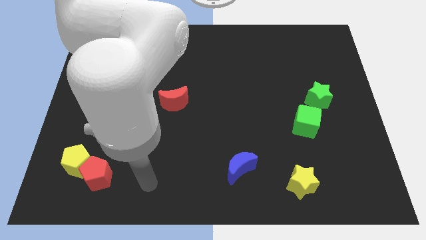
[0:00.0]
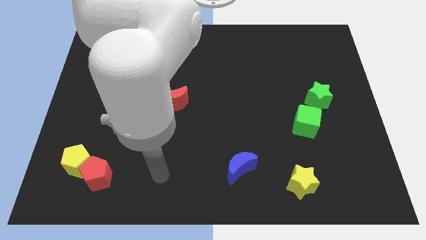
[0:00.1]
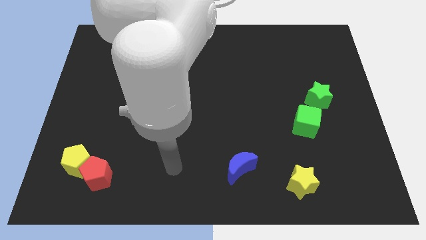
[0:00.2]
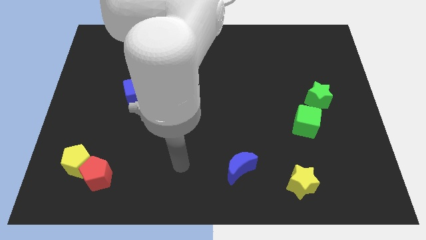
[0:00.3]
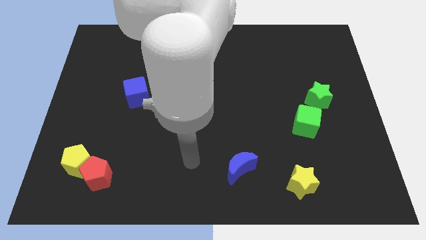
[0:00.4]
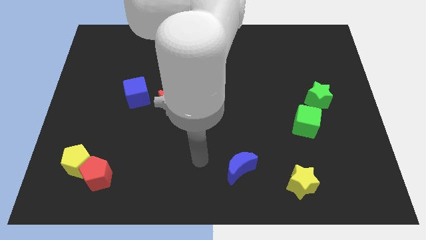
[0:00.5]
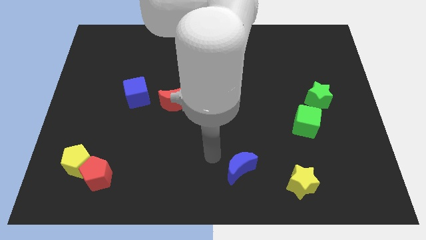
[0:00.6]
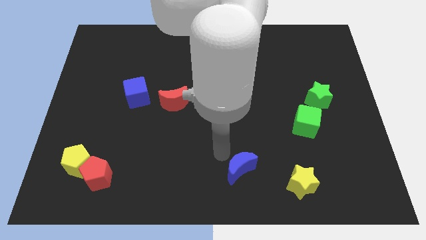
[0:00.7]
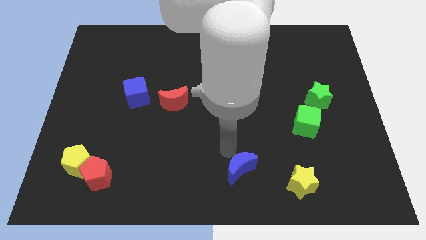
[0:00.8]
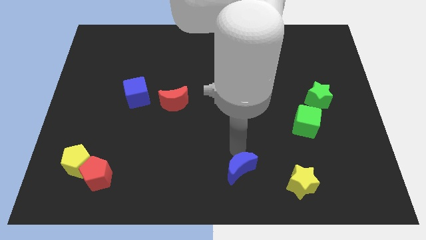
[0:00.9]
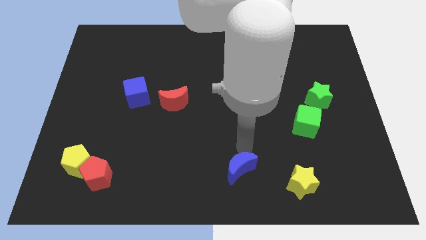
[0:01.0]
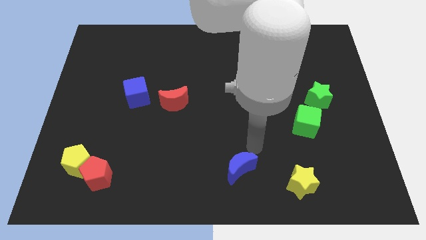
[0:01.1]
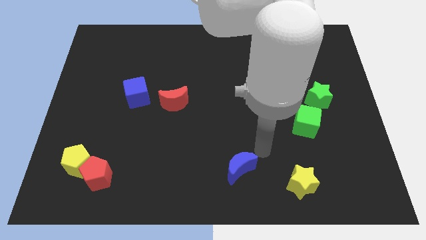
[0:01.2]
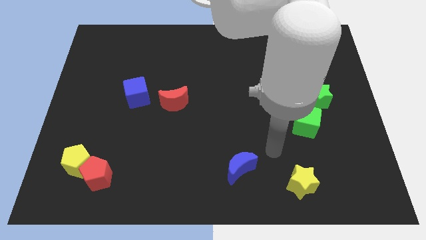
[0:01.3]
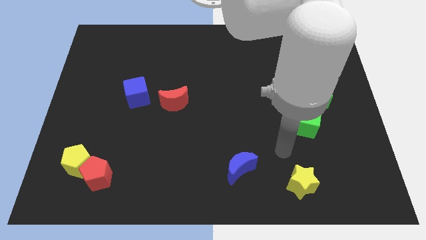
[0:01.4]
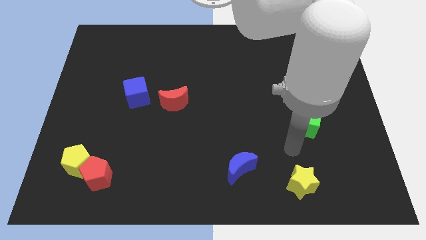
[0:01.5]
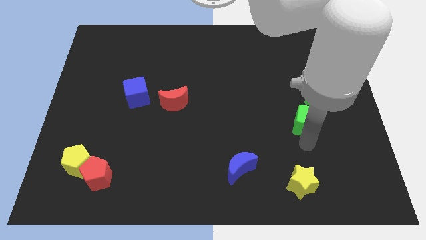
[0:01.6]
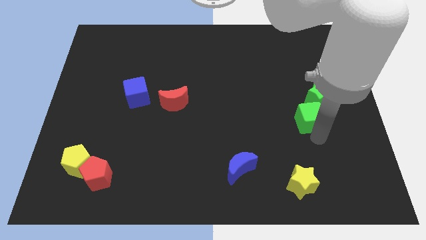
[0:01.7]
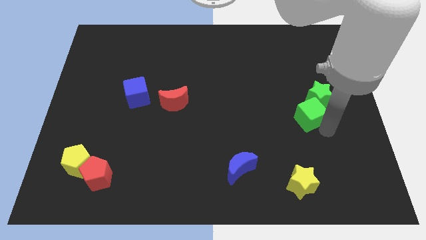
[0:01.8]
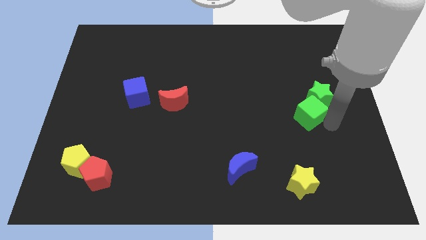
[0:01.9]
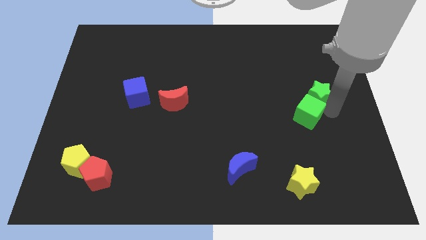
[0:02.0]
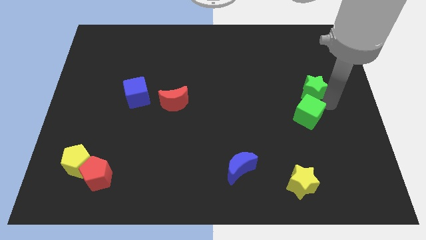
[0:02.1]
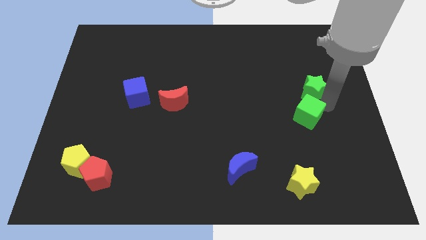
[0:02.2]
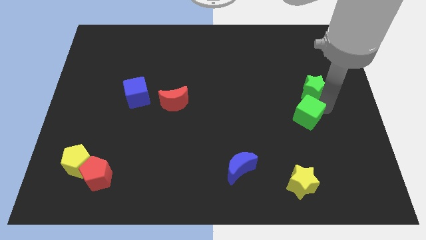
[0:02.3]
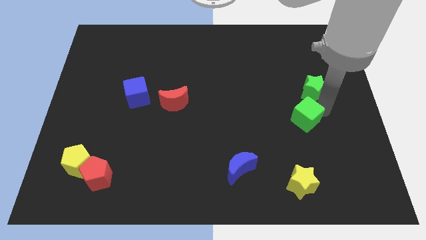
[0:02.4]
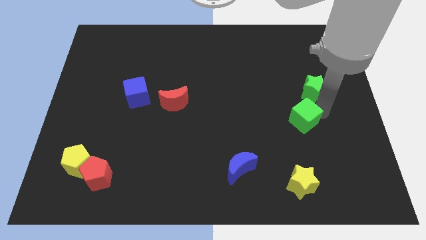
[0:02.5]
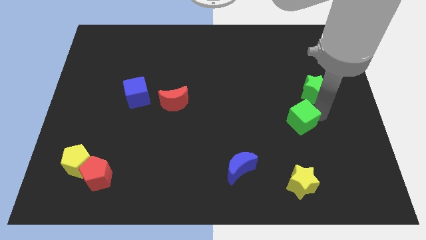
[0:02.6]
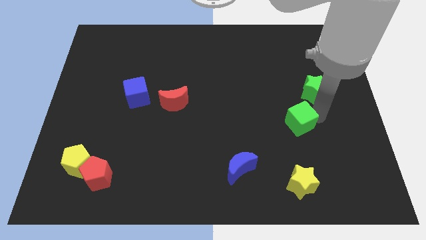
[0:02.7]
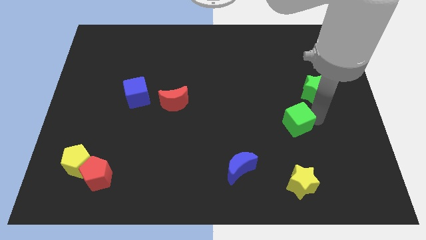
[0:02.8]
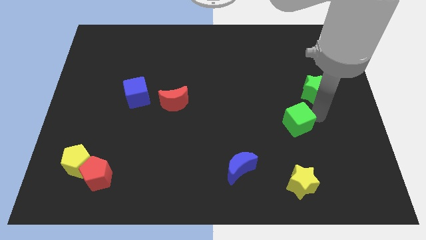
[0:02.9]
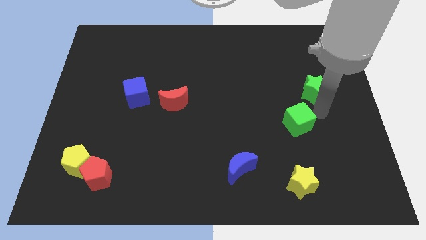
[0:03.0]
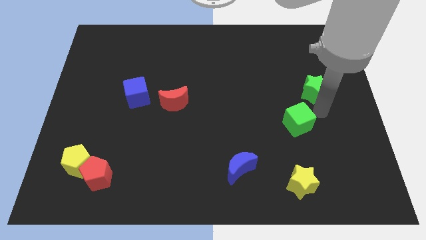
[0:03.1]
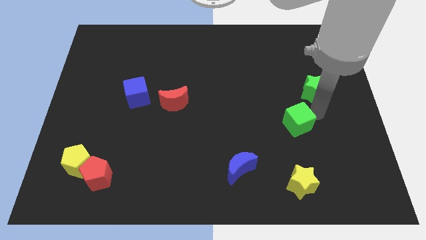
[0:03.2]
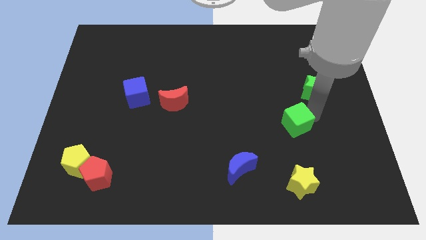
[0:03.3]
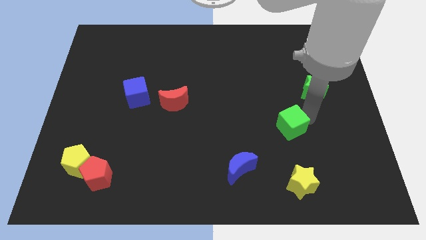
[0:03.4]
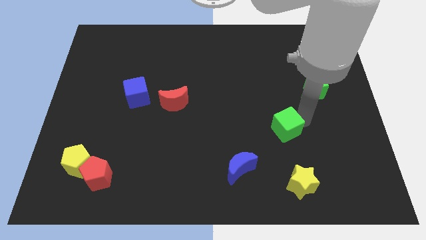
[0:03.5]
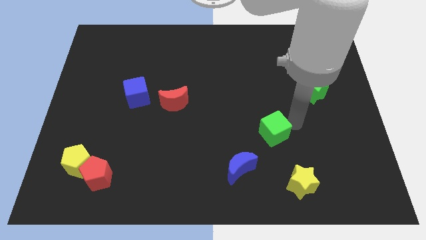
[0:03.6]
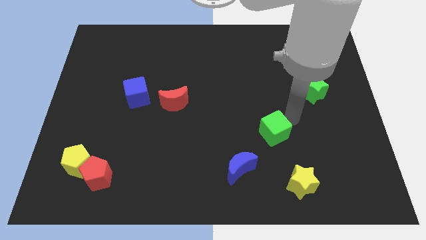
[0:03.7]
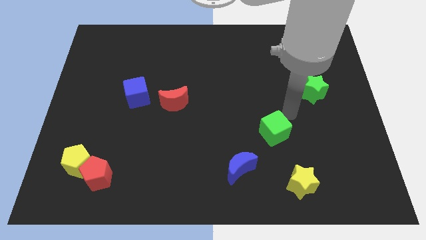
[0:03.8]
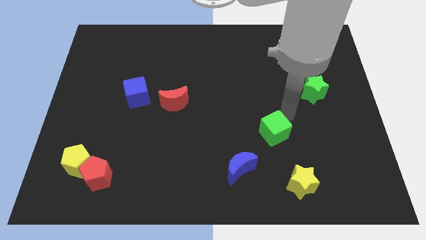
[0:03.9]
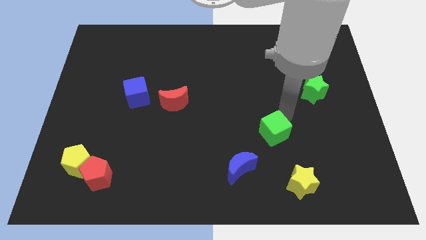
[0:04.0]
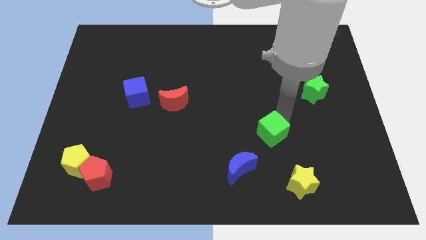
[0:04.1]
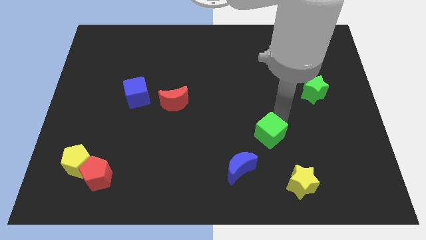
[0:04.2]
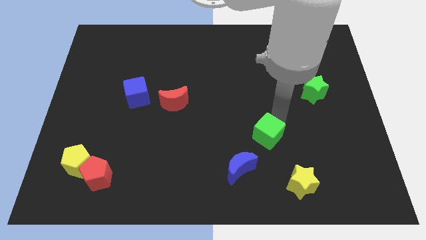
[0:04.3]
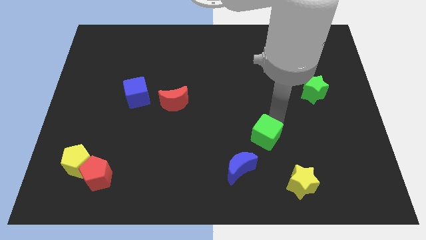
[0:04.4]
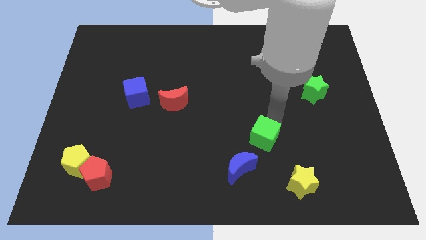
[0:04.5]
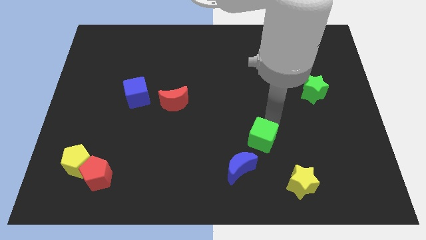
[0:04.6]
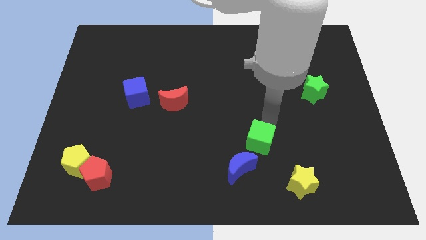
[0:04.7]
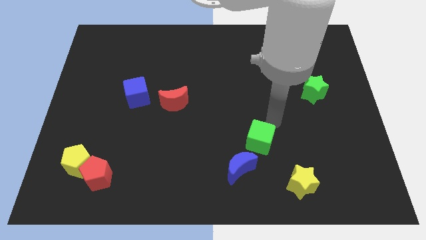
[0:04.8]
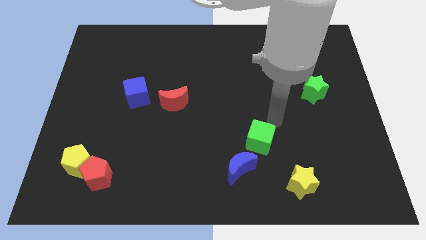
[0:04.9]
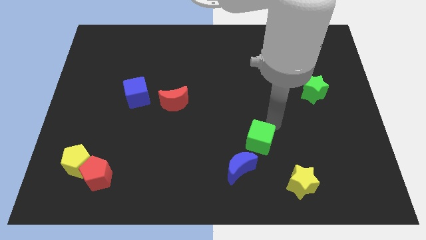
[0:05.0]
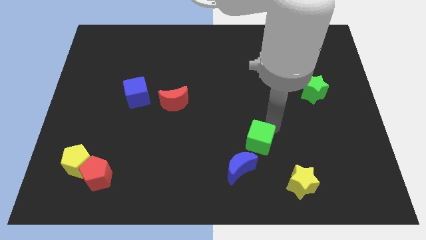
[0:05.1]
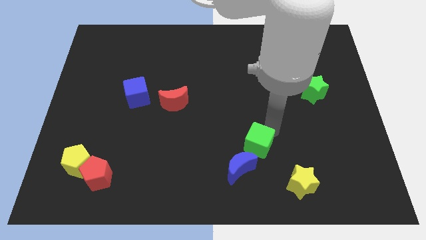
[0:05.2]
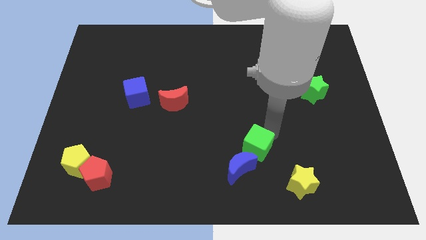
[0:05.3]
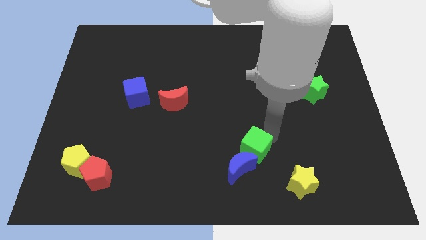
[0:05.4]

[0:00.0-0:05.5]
push the green cube towards the blue moon

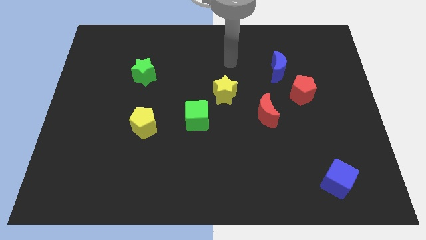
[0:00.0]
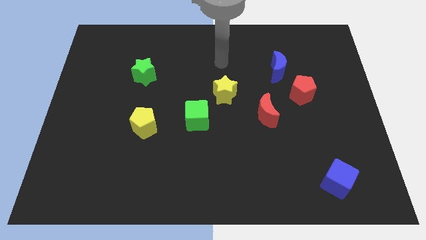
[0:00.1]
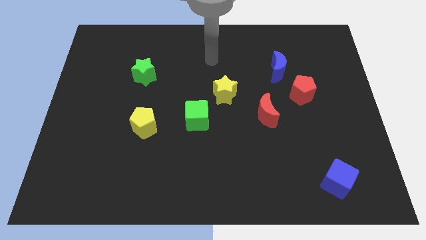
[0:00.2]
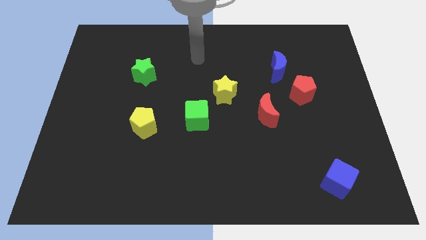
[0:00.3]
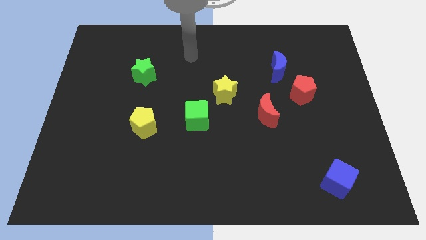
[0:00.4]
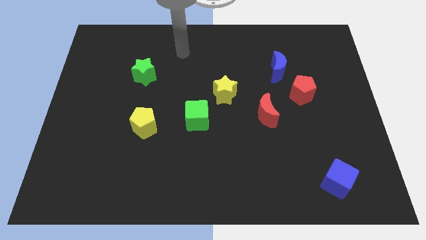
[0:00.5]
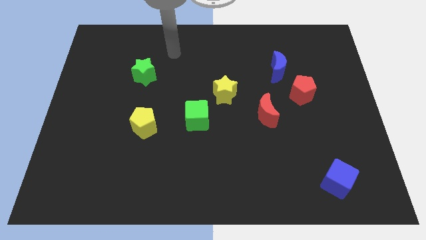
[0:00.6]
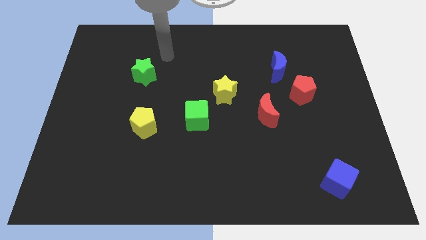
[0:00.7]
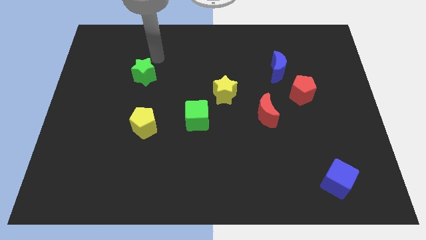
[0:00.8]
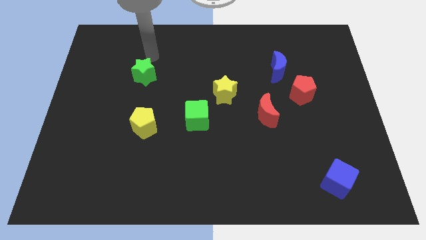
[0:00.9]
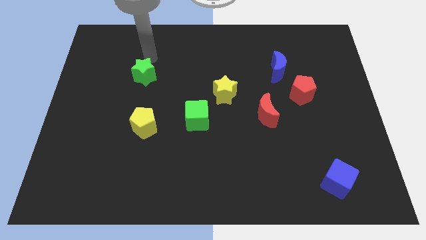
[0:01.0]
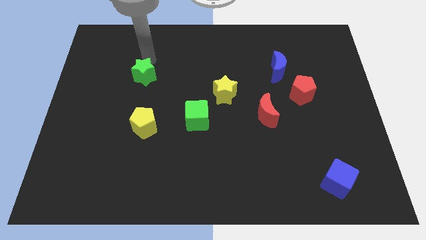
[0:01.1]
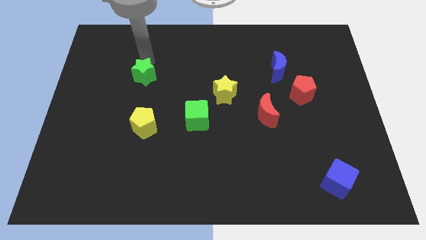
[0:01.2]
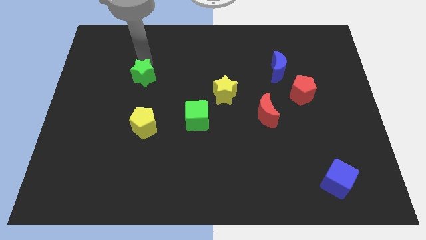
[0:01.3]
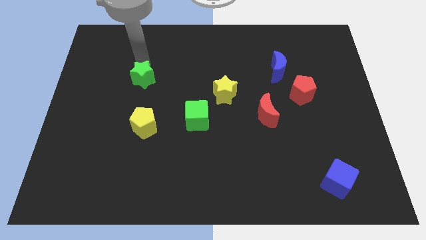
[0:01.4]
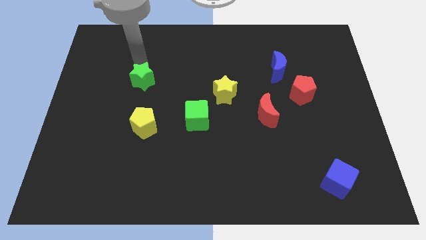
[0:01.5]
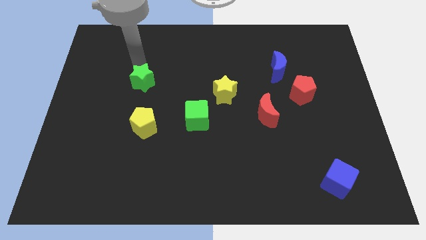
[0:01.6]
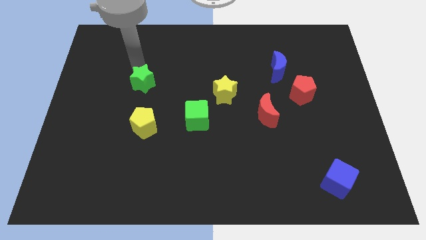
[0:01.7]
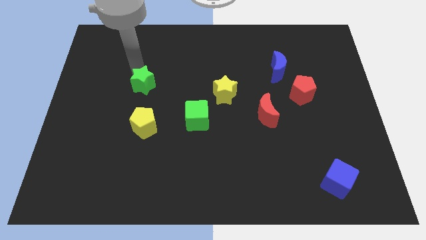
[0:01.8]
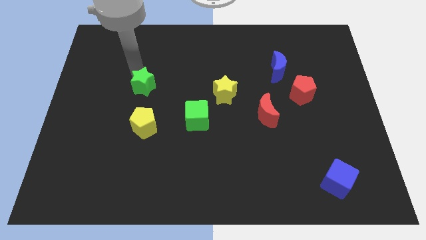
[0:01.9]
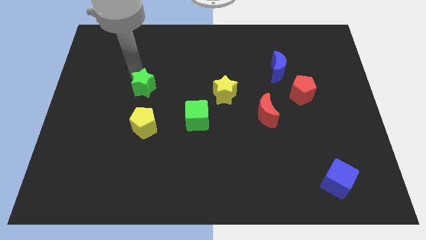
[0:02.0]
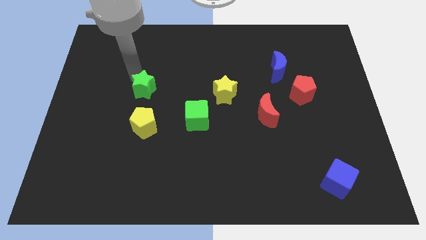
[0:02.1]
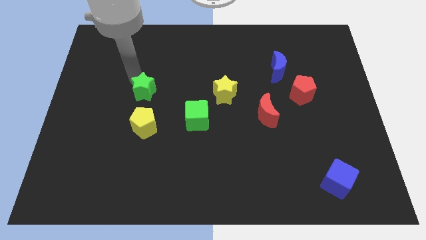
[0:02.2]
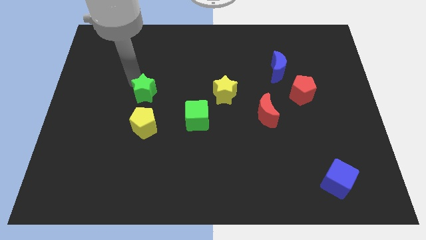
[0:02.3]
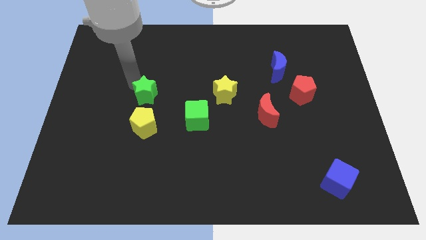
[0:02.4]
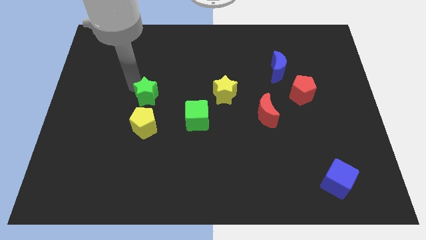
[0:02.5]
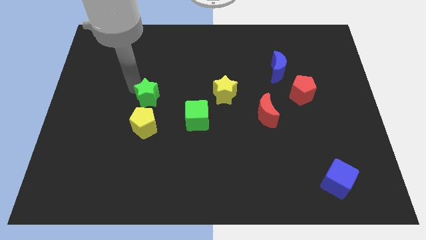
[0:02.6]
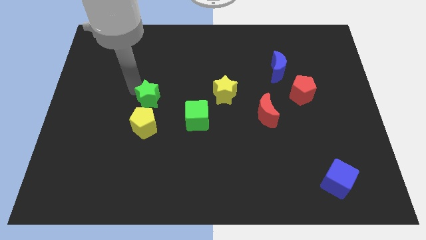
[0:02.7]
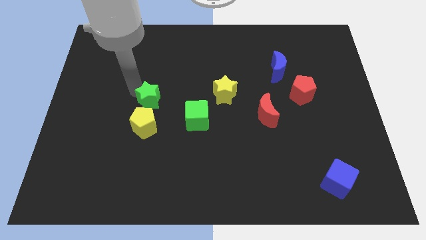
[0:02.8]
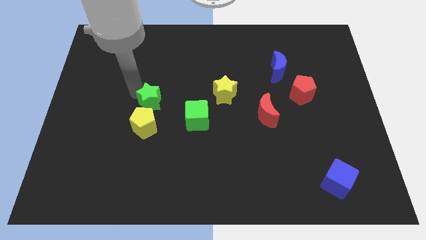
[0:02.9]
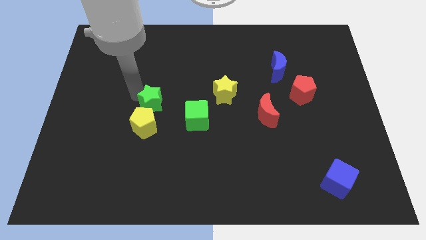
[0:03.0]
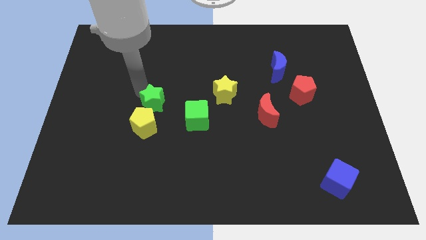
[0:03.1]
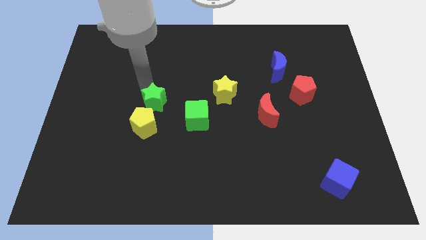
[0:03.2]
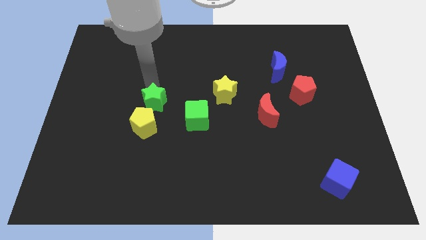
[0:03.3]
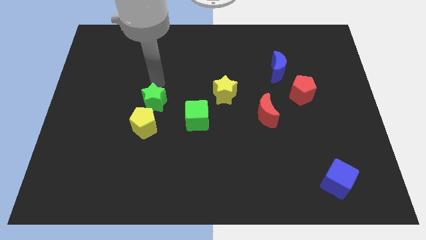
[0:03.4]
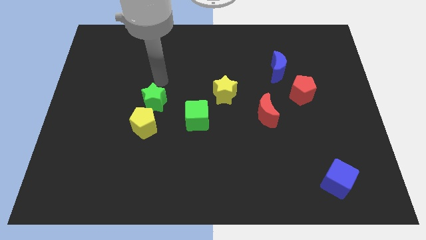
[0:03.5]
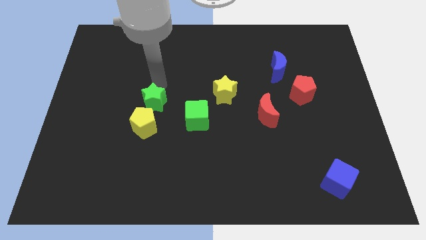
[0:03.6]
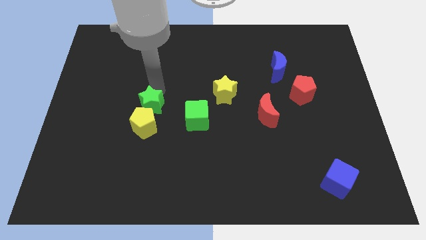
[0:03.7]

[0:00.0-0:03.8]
push the green star to the yellow pentagon
